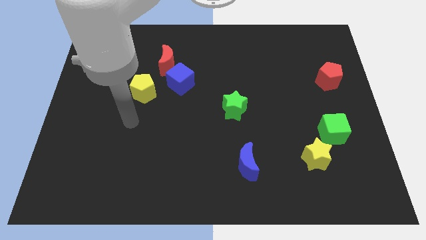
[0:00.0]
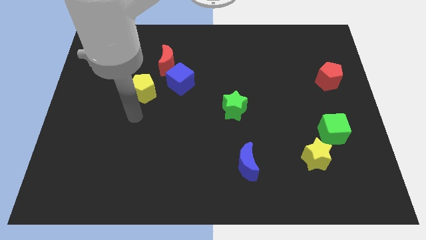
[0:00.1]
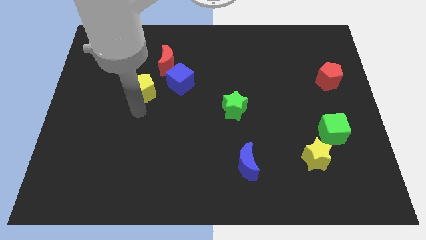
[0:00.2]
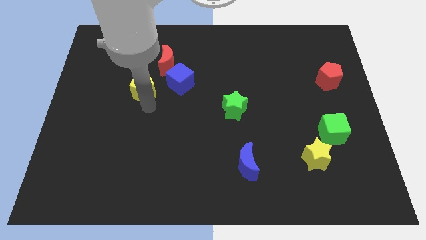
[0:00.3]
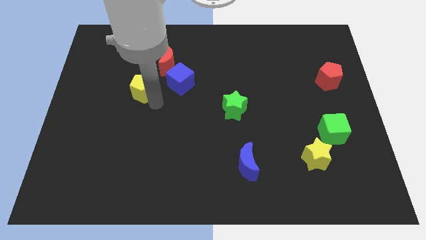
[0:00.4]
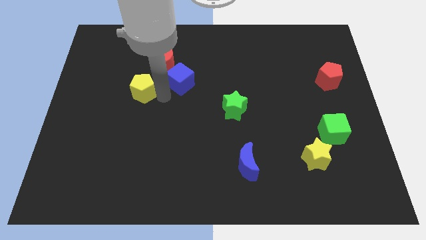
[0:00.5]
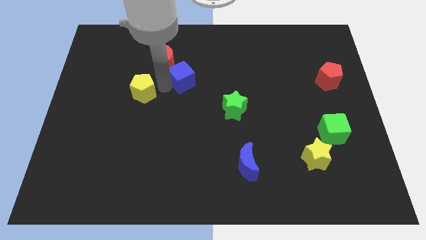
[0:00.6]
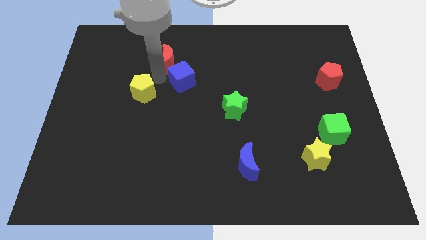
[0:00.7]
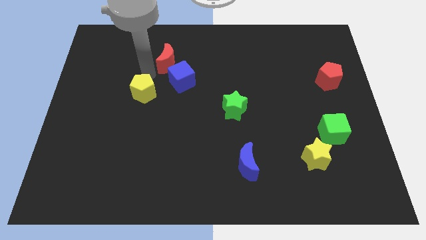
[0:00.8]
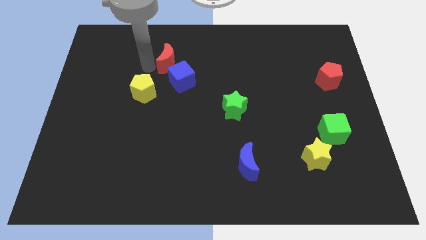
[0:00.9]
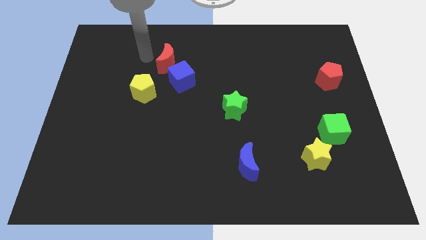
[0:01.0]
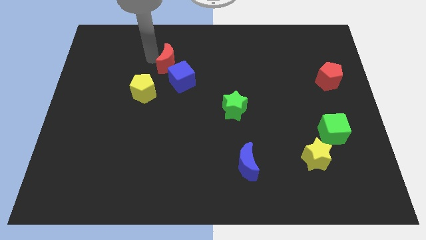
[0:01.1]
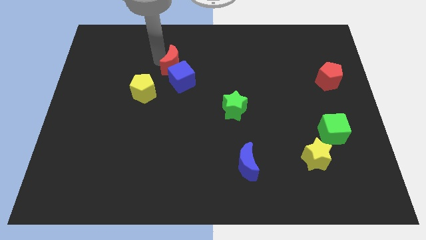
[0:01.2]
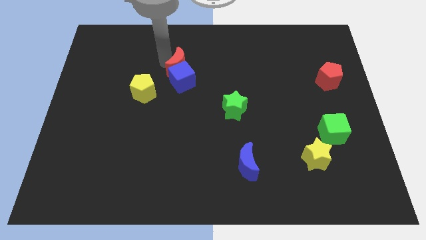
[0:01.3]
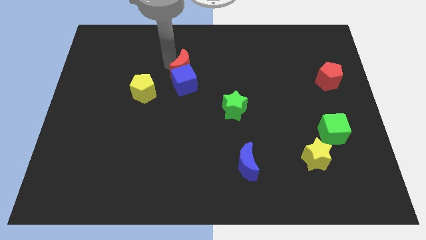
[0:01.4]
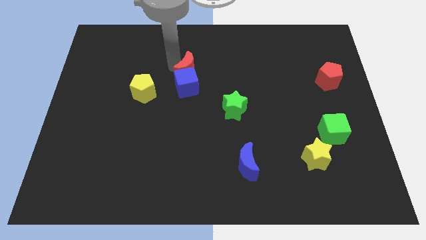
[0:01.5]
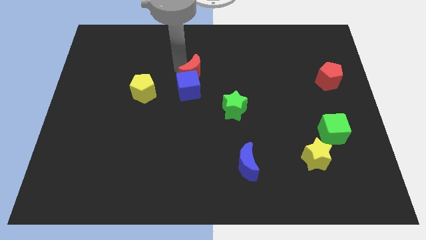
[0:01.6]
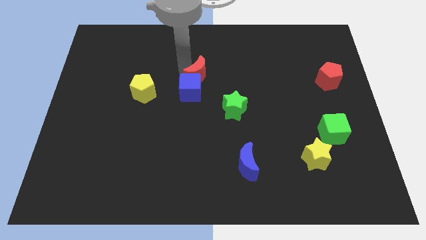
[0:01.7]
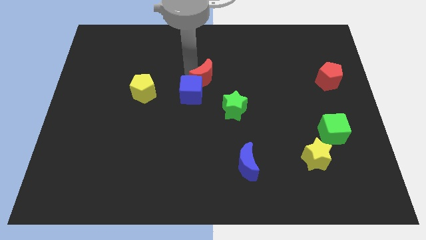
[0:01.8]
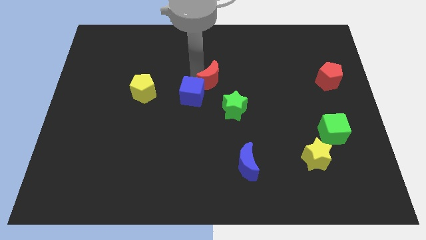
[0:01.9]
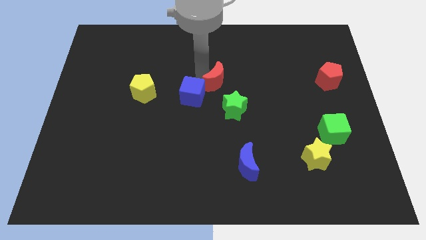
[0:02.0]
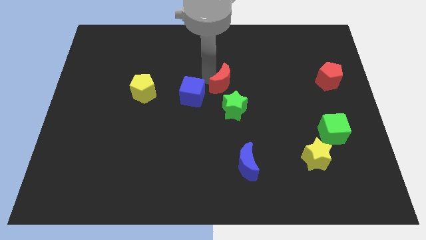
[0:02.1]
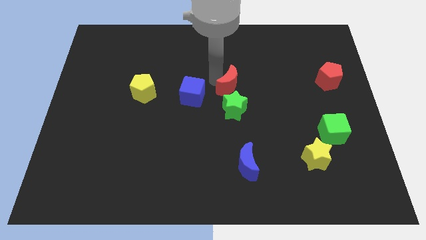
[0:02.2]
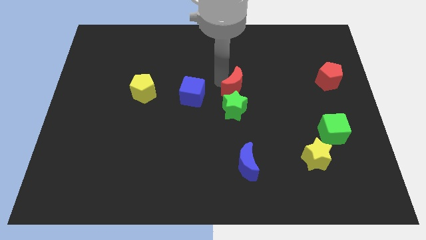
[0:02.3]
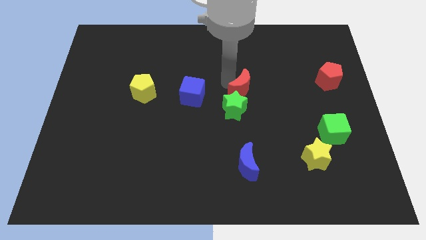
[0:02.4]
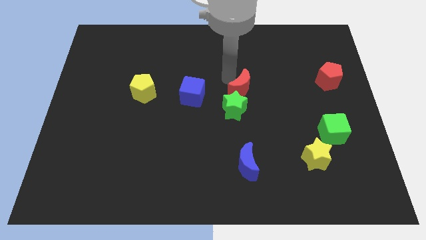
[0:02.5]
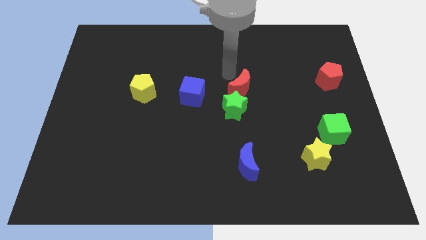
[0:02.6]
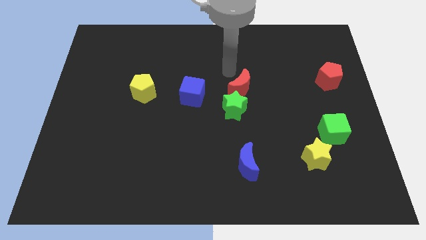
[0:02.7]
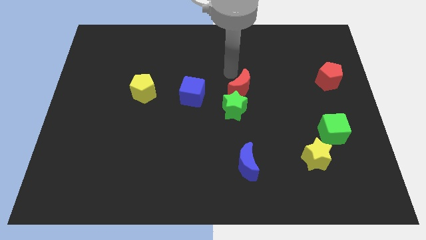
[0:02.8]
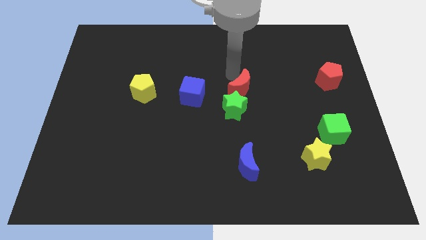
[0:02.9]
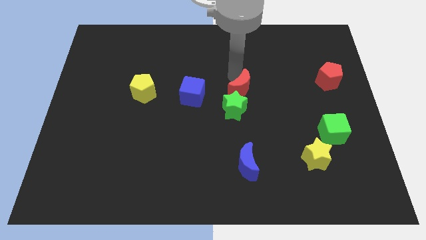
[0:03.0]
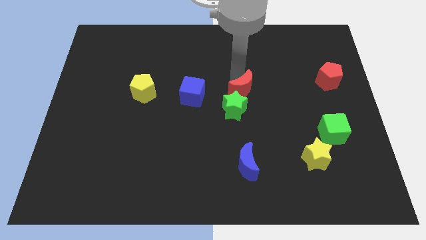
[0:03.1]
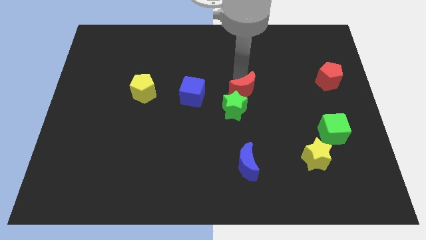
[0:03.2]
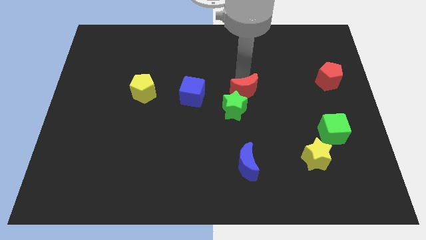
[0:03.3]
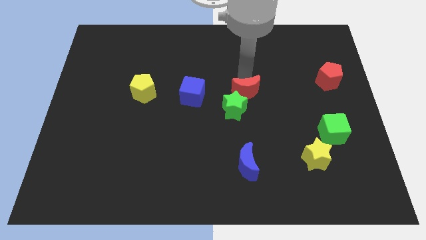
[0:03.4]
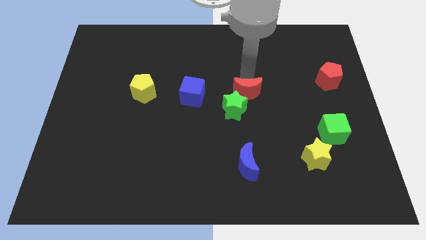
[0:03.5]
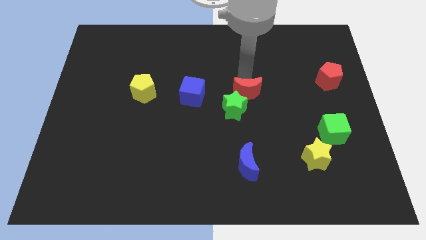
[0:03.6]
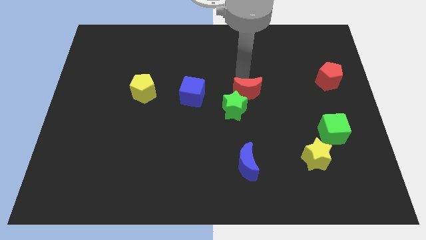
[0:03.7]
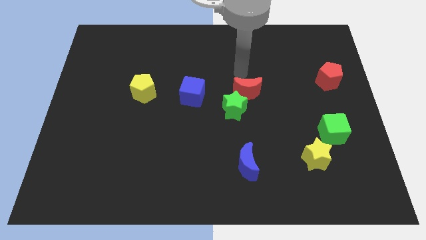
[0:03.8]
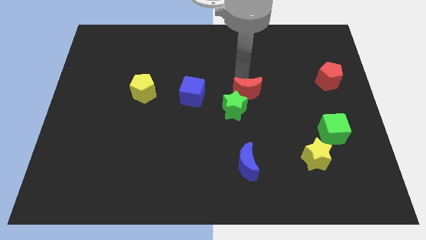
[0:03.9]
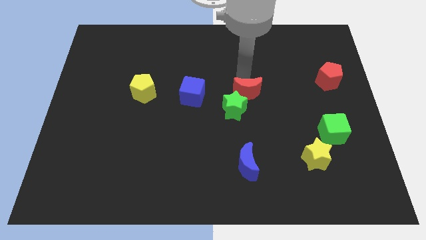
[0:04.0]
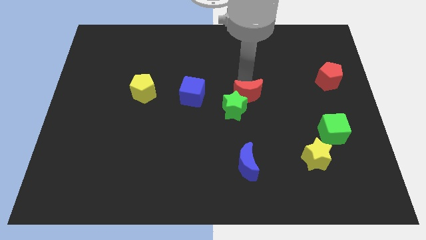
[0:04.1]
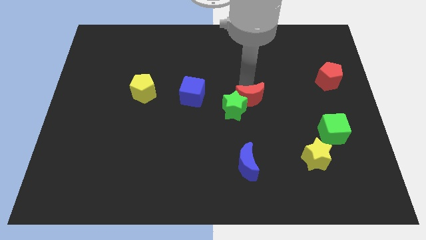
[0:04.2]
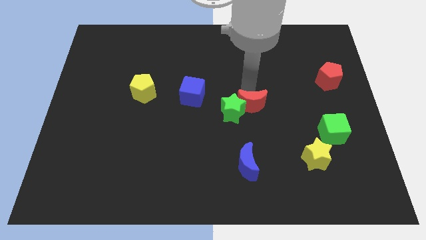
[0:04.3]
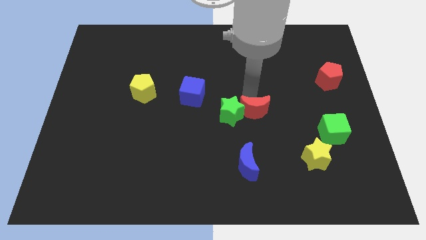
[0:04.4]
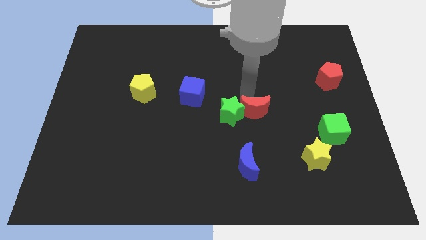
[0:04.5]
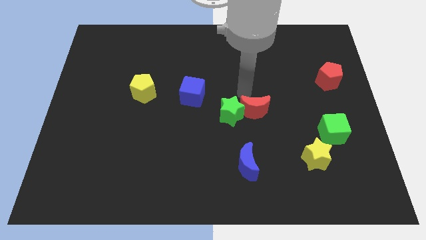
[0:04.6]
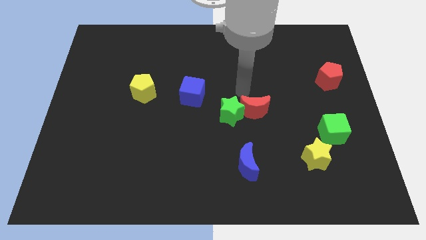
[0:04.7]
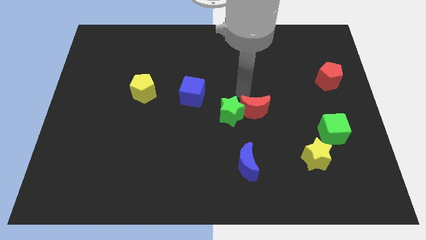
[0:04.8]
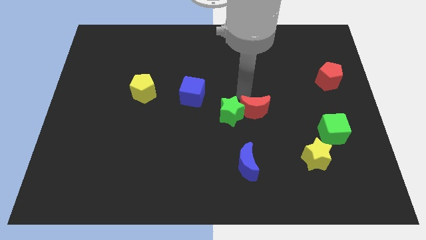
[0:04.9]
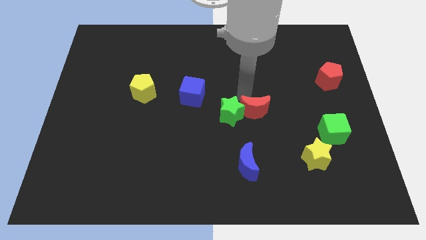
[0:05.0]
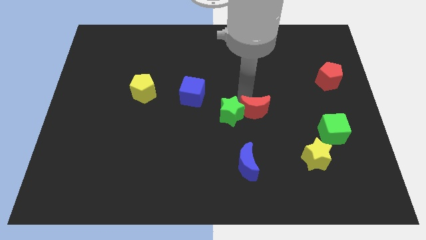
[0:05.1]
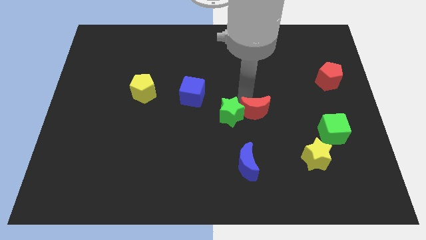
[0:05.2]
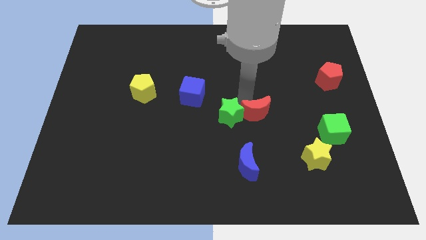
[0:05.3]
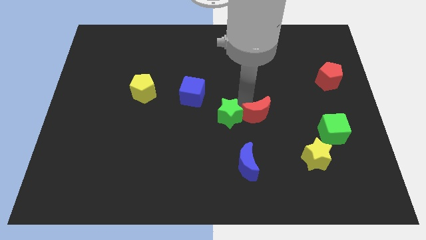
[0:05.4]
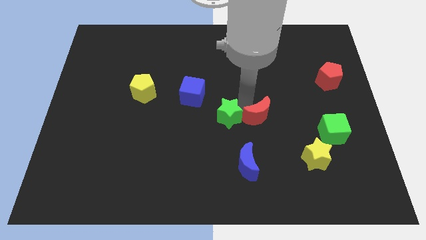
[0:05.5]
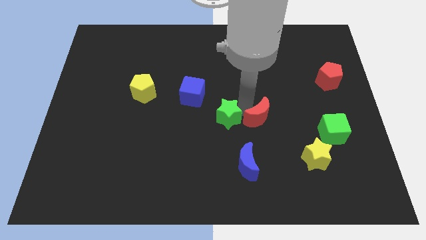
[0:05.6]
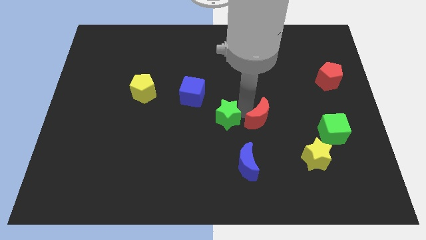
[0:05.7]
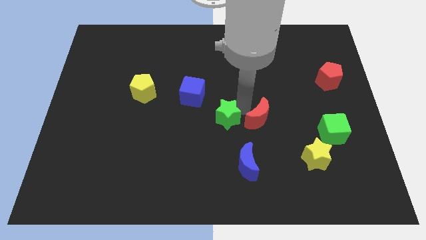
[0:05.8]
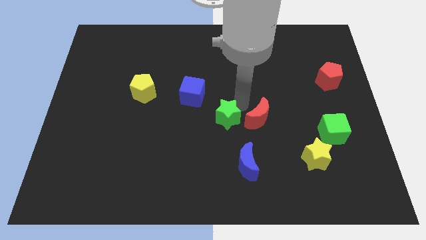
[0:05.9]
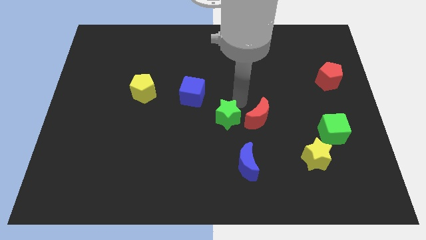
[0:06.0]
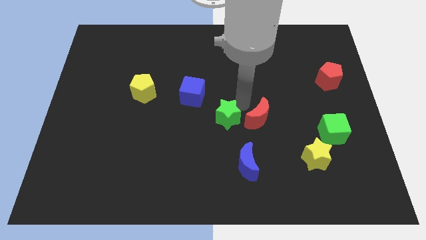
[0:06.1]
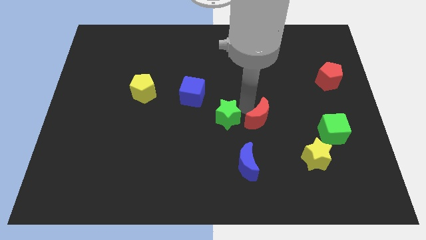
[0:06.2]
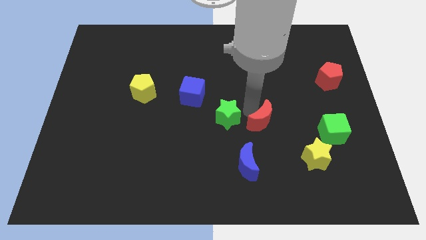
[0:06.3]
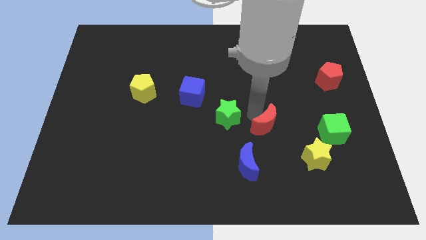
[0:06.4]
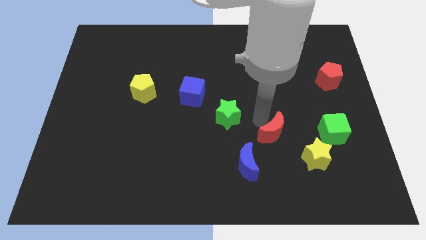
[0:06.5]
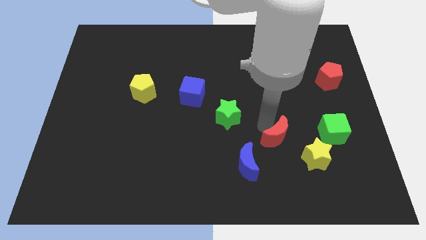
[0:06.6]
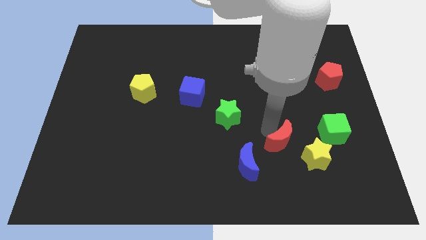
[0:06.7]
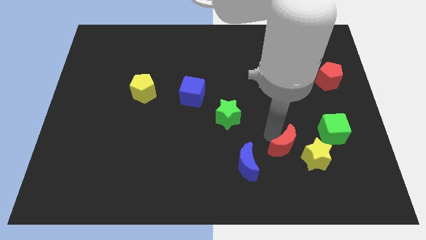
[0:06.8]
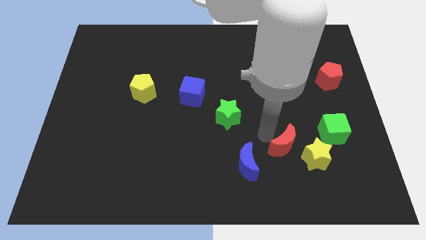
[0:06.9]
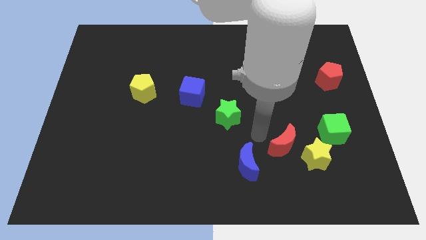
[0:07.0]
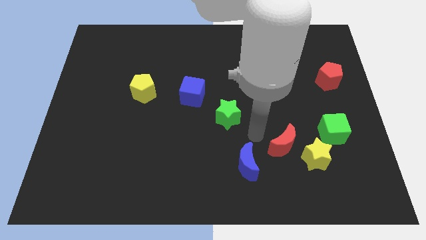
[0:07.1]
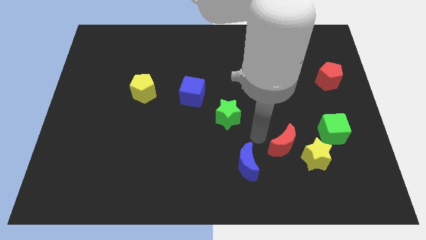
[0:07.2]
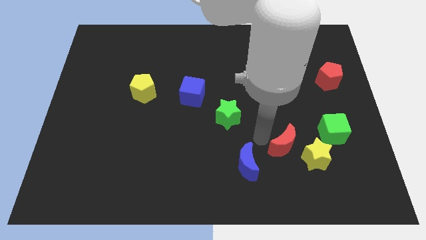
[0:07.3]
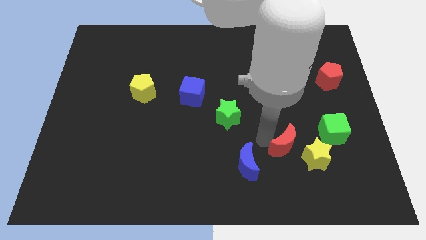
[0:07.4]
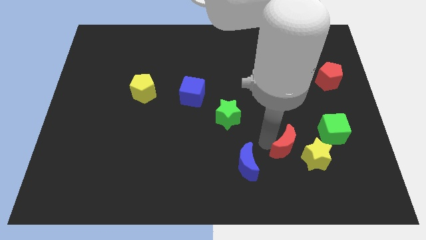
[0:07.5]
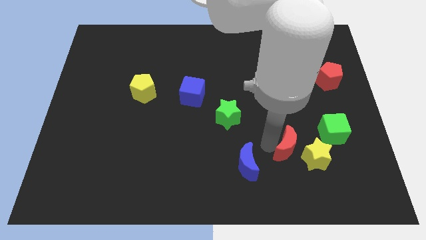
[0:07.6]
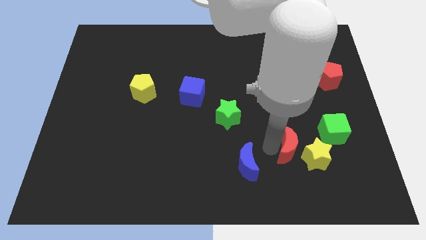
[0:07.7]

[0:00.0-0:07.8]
slide the red moon to the yellow star
